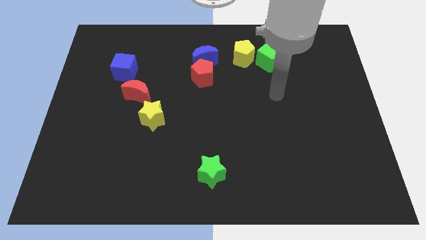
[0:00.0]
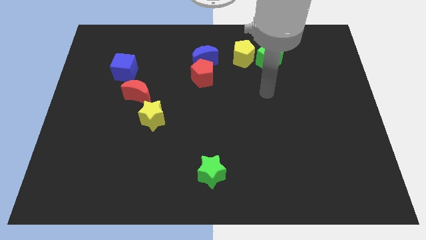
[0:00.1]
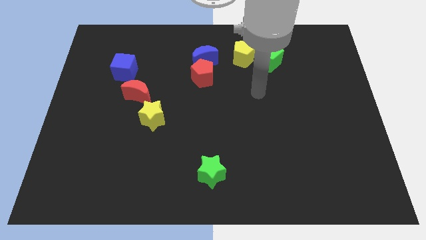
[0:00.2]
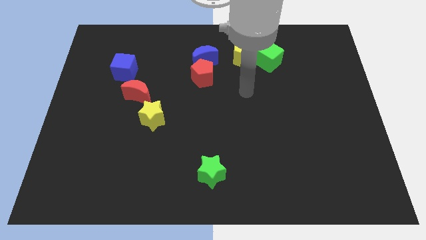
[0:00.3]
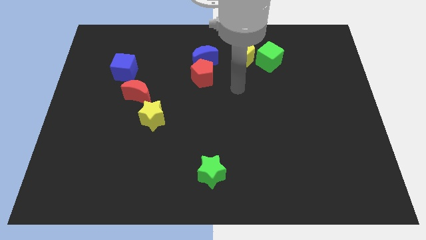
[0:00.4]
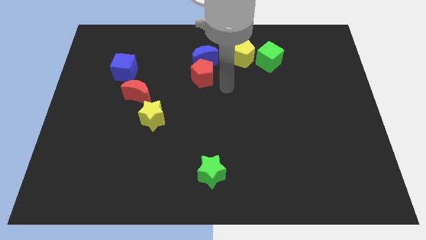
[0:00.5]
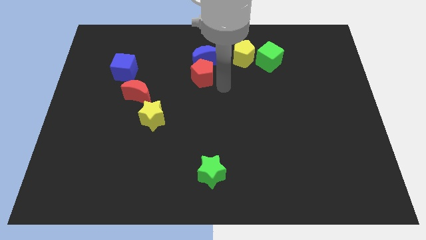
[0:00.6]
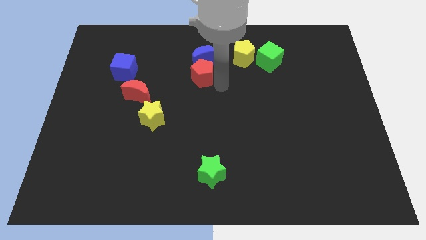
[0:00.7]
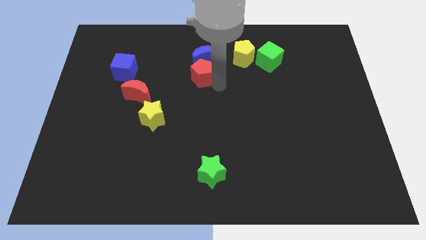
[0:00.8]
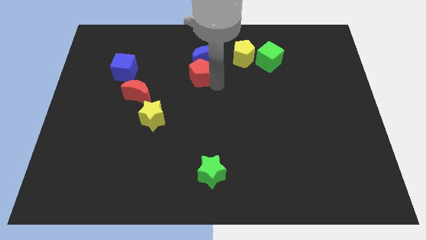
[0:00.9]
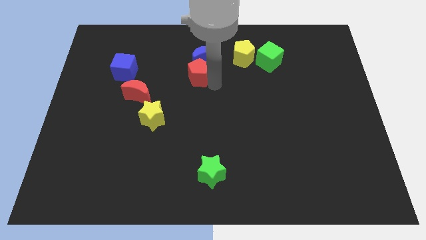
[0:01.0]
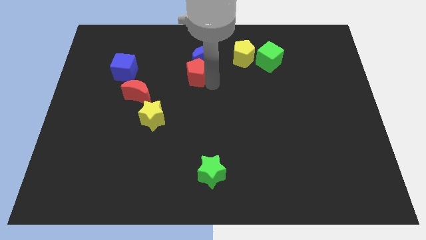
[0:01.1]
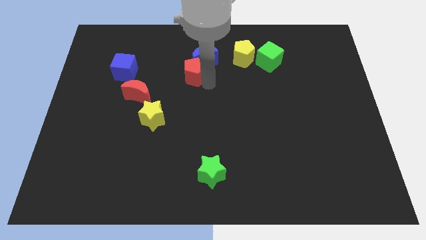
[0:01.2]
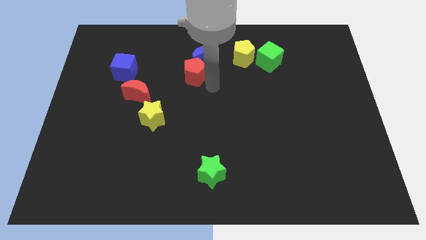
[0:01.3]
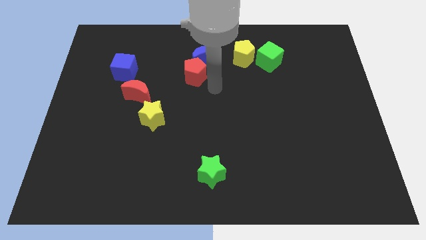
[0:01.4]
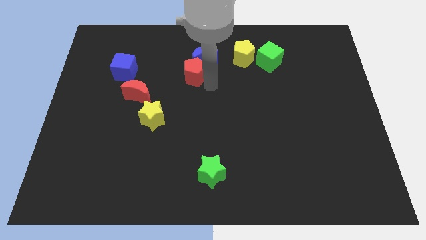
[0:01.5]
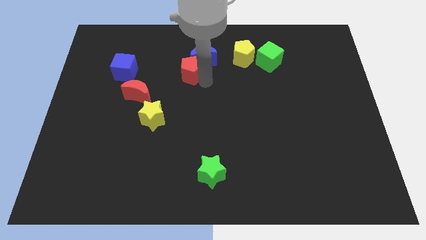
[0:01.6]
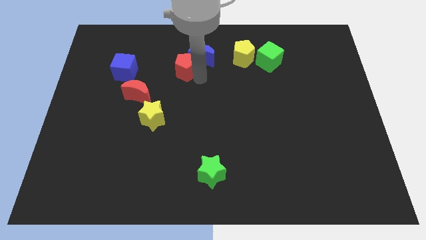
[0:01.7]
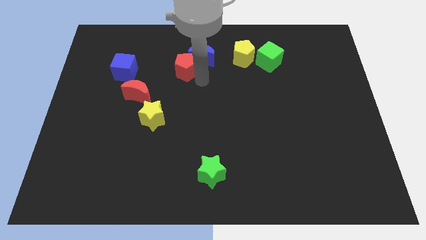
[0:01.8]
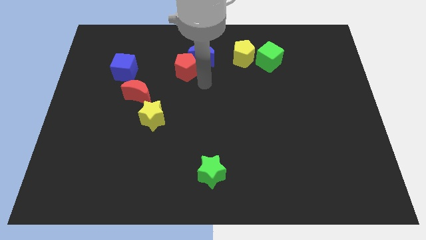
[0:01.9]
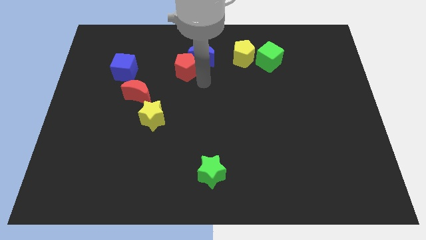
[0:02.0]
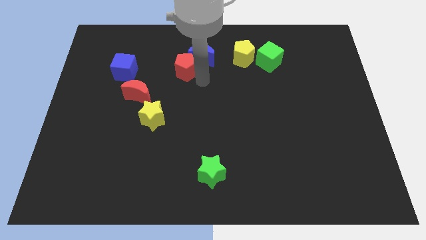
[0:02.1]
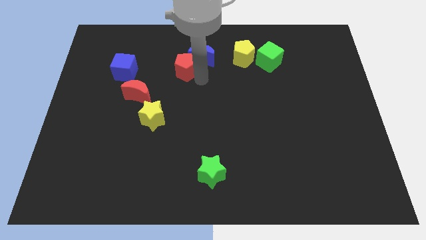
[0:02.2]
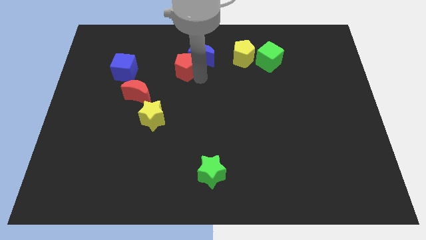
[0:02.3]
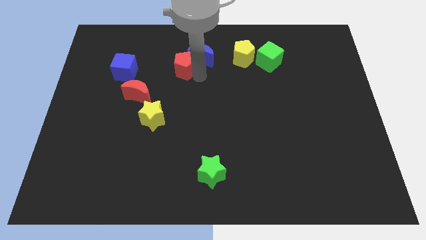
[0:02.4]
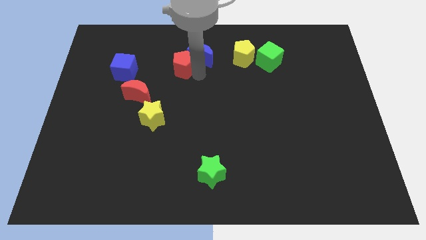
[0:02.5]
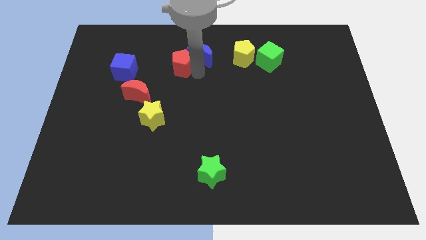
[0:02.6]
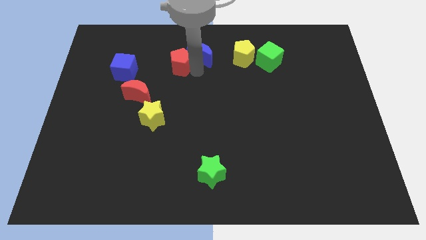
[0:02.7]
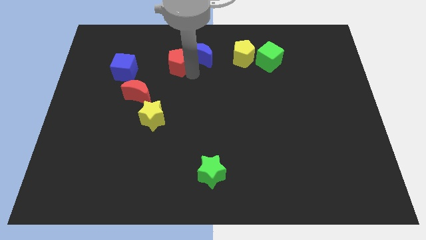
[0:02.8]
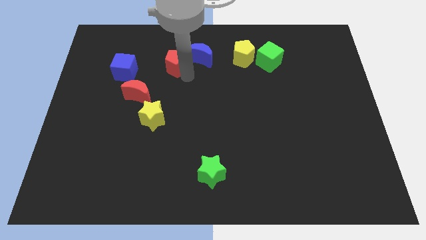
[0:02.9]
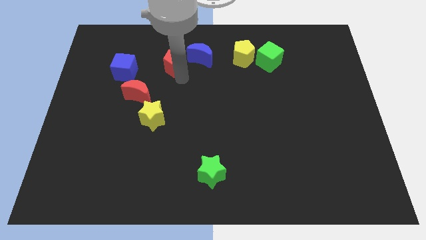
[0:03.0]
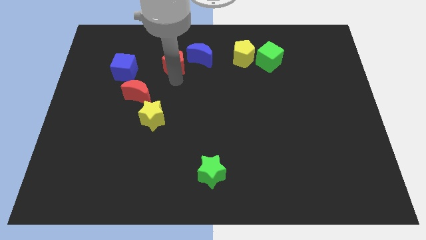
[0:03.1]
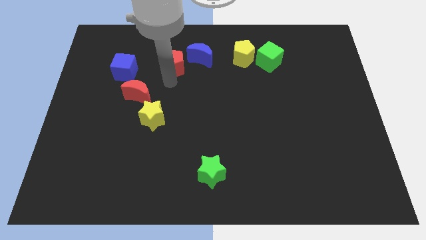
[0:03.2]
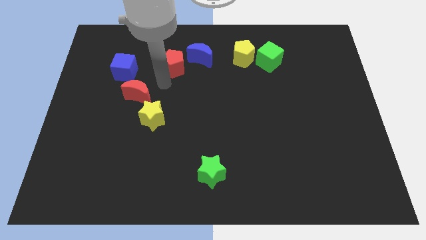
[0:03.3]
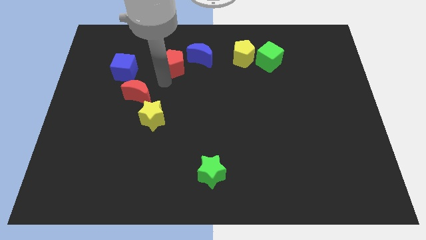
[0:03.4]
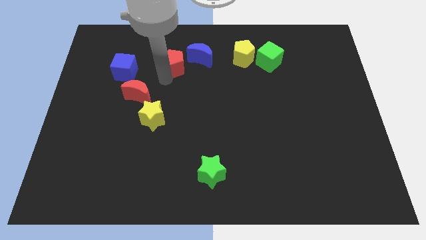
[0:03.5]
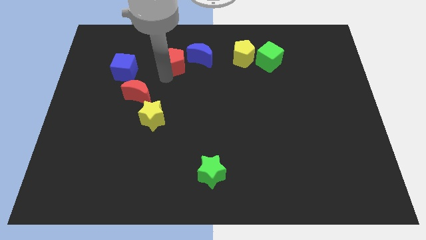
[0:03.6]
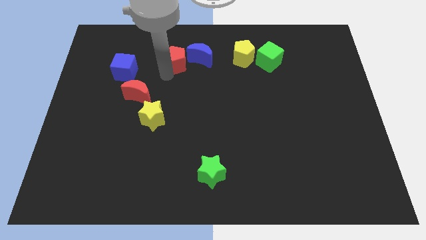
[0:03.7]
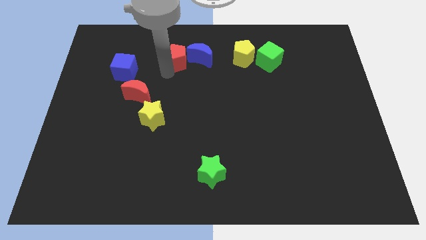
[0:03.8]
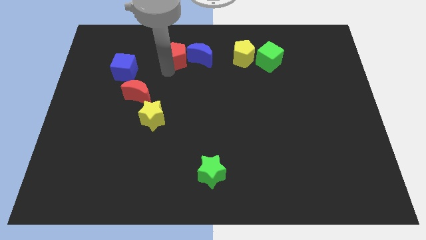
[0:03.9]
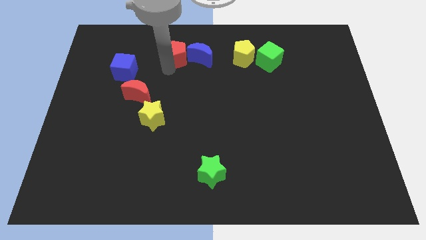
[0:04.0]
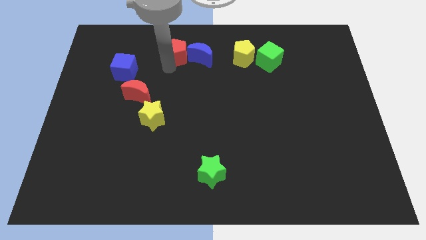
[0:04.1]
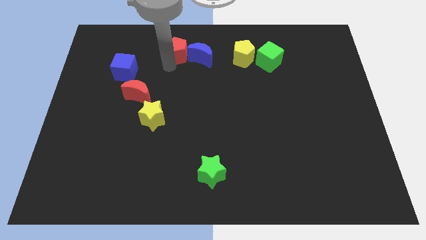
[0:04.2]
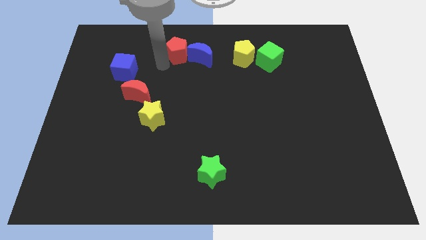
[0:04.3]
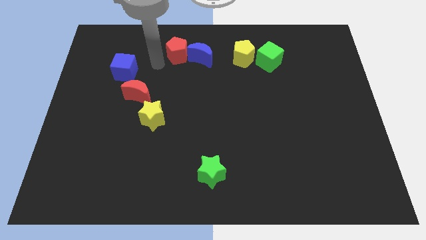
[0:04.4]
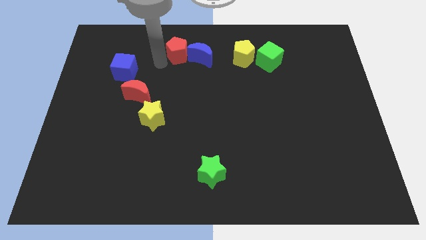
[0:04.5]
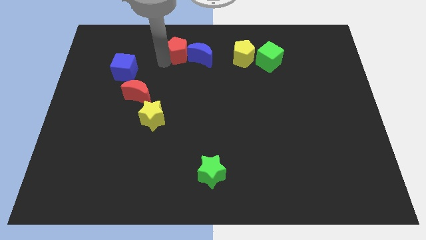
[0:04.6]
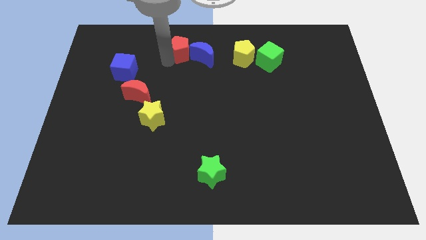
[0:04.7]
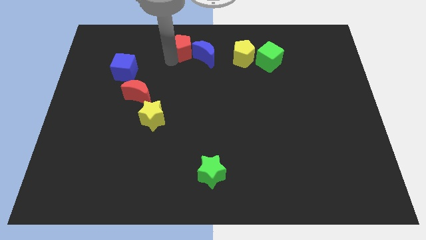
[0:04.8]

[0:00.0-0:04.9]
slide the red pentagon to the towards your base
